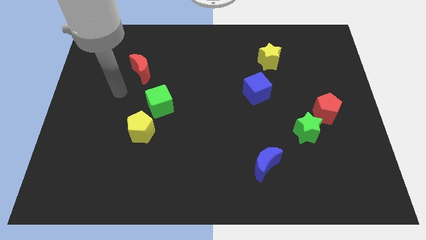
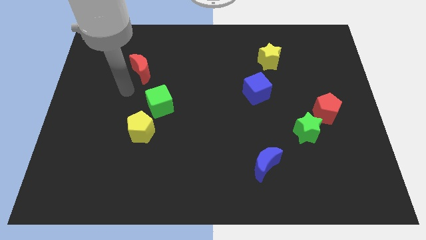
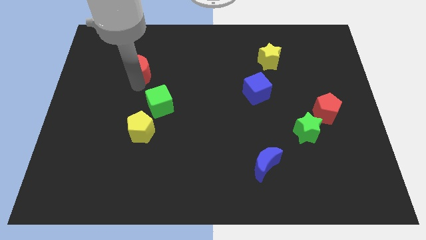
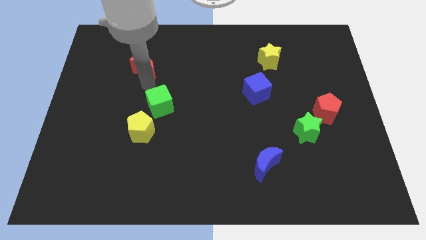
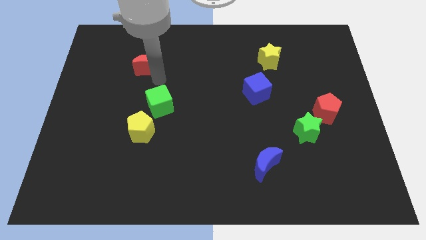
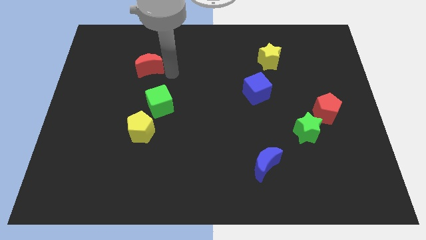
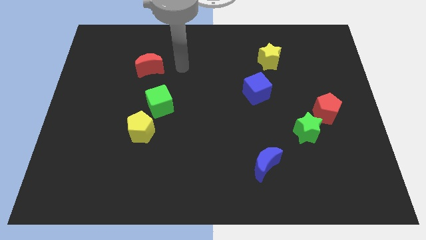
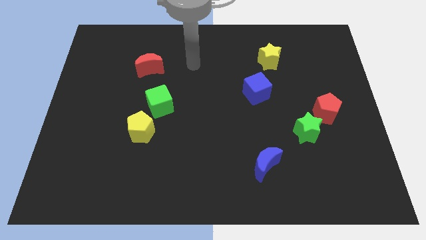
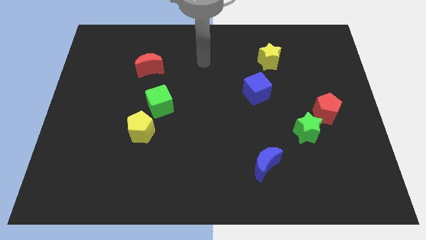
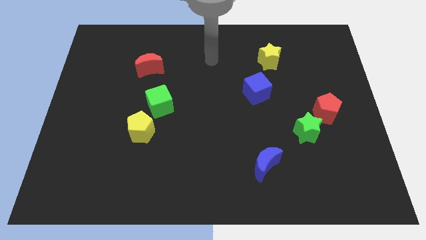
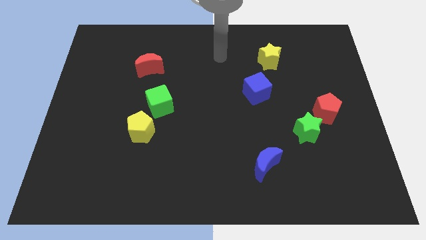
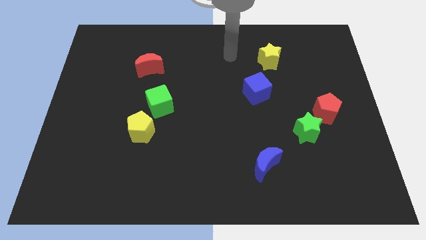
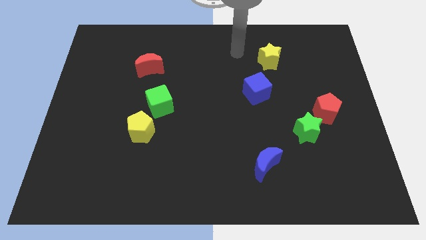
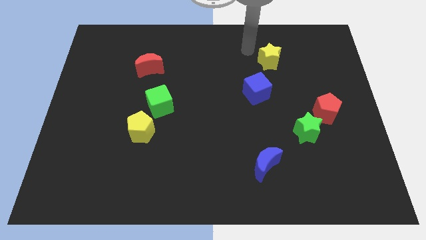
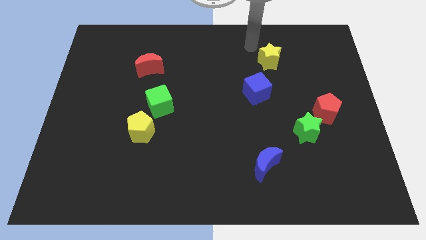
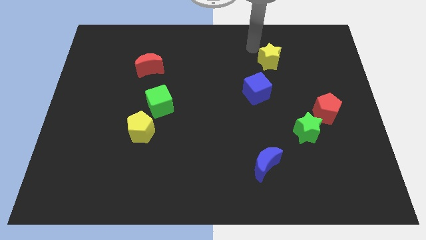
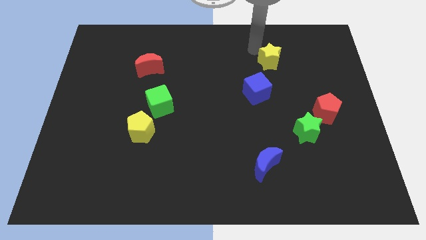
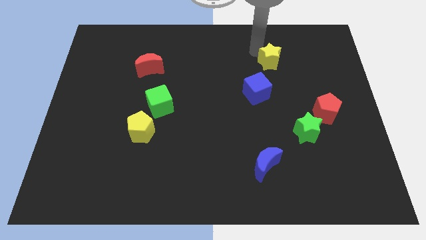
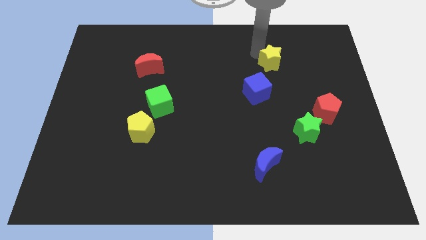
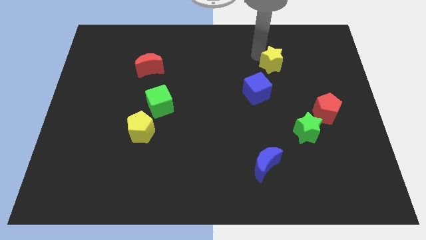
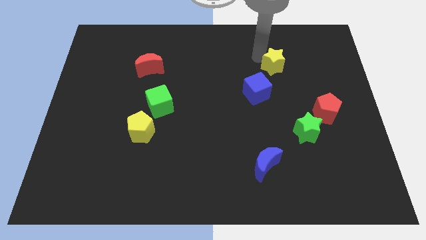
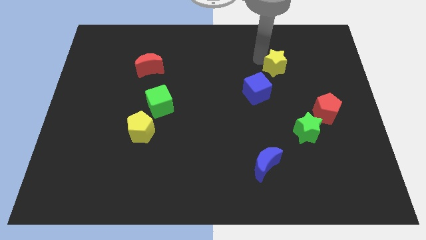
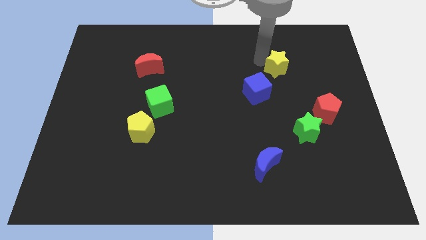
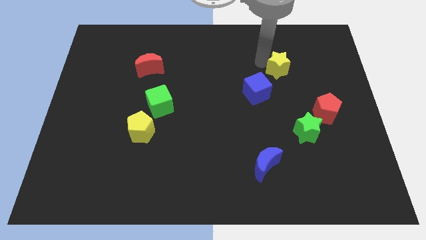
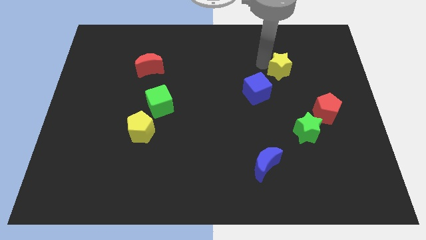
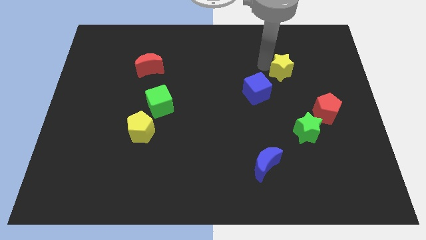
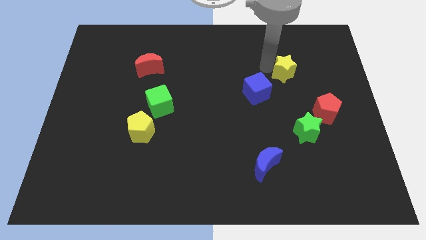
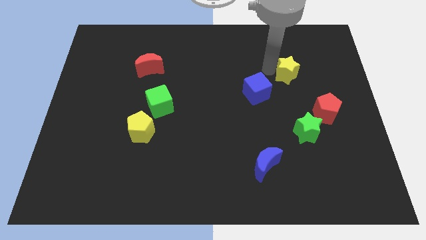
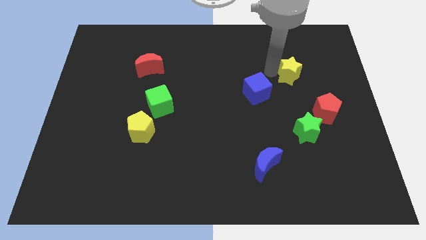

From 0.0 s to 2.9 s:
slightly move the yellow star down and to the right diagonally

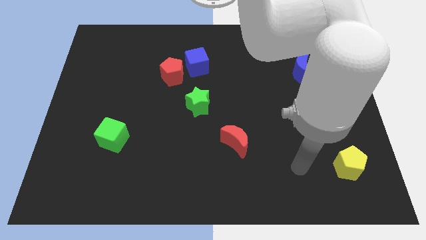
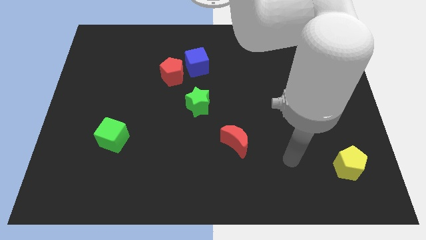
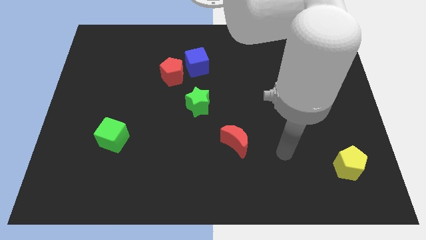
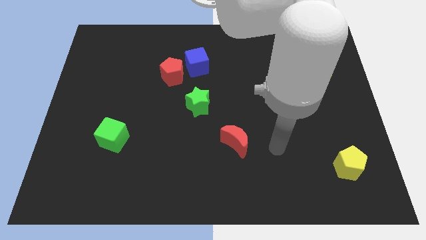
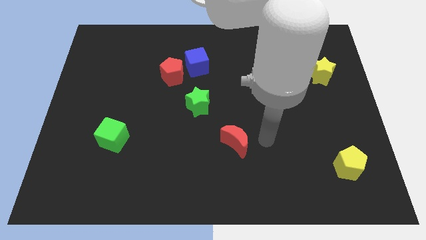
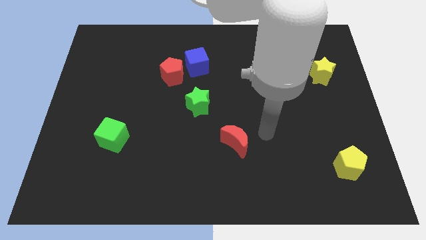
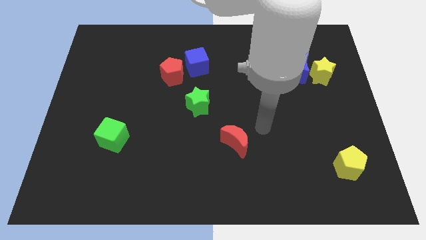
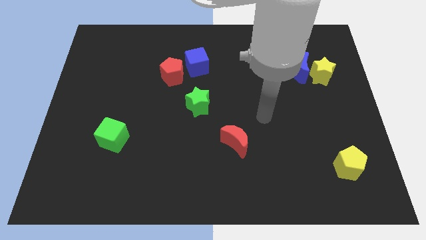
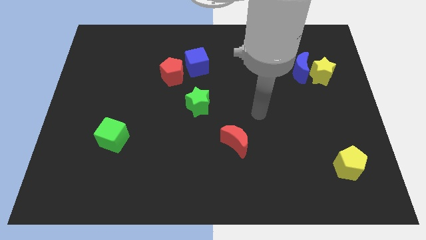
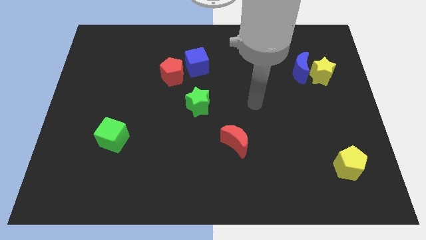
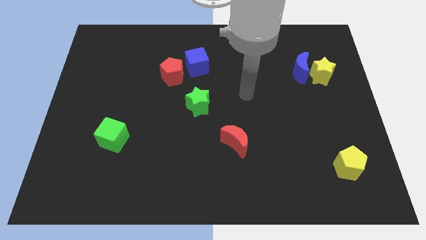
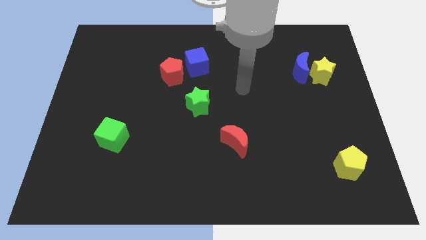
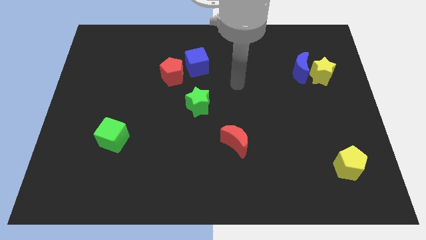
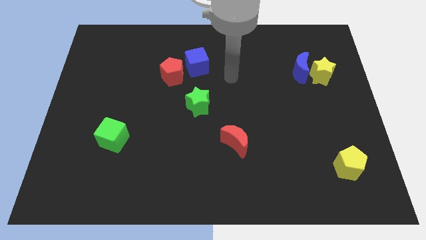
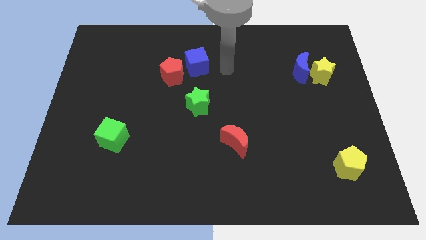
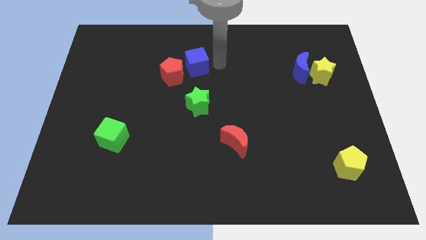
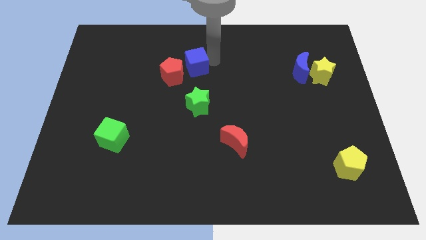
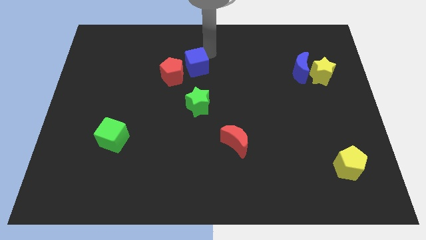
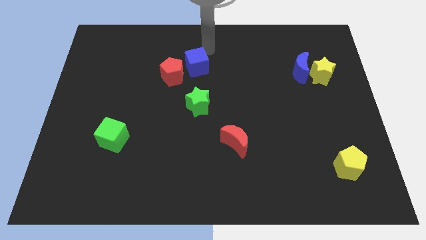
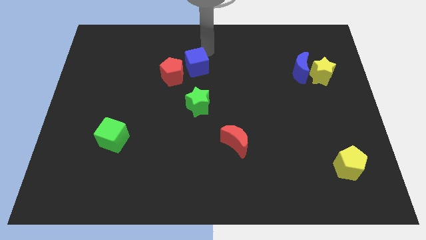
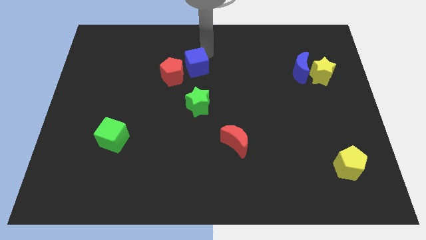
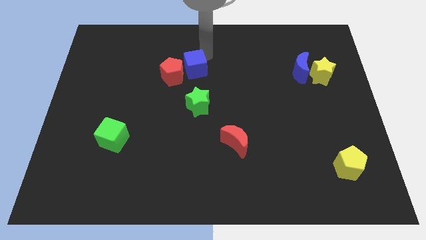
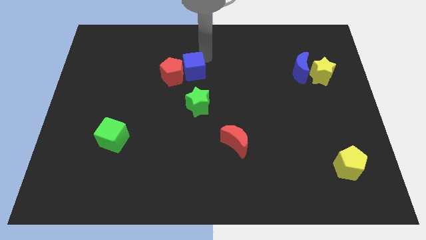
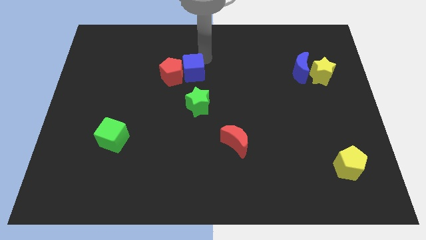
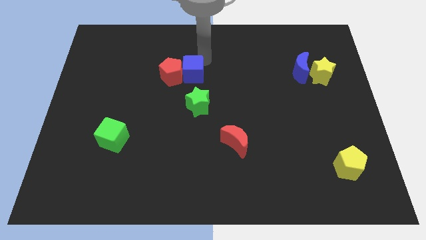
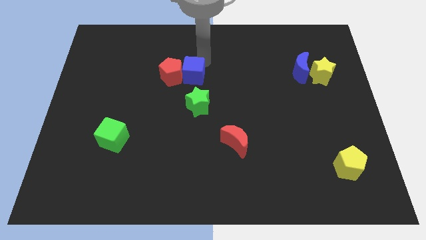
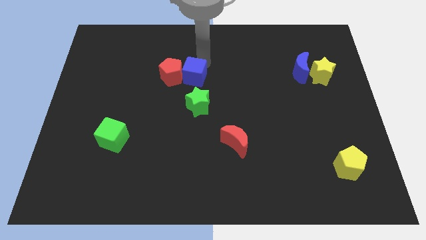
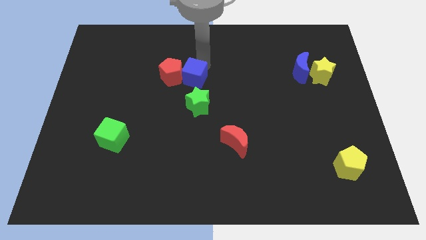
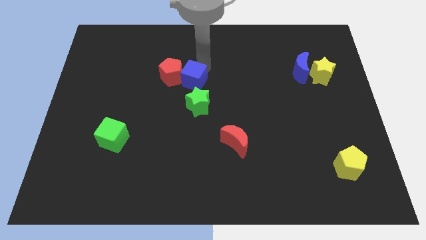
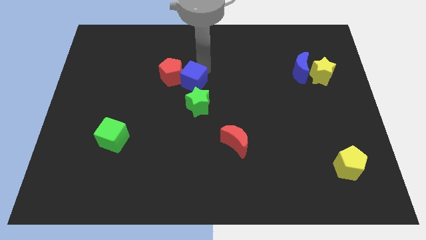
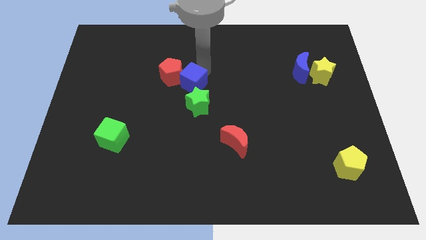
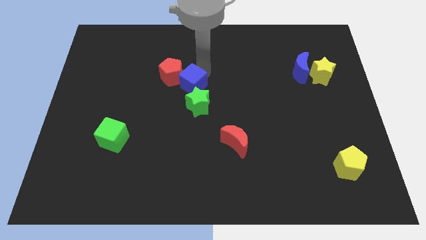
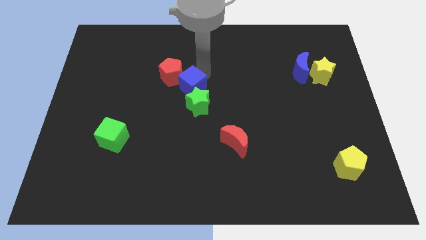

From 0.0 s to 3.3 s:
move the blue cube a little bit downwards

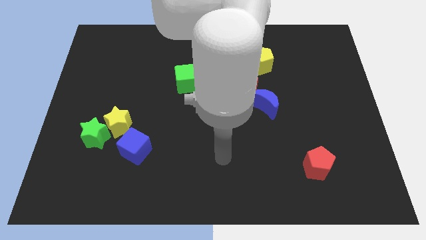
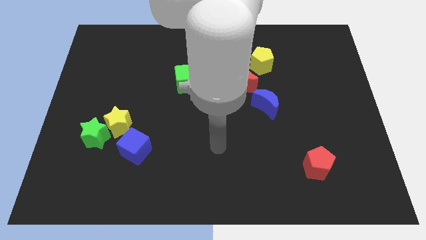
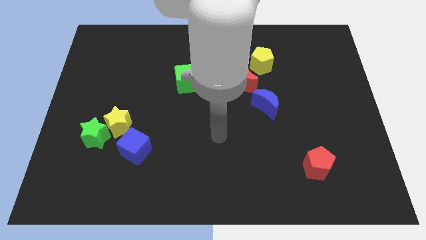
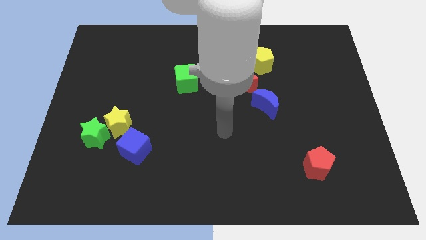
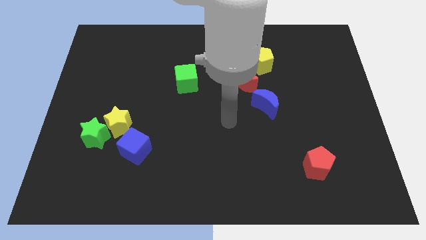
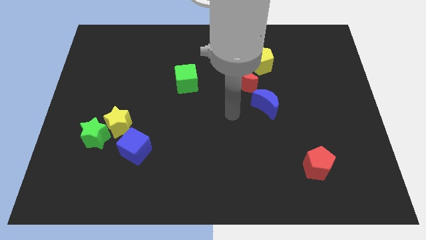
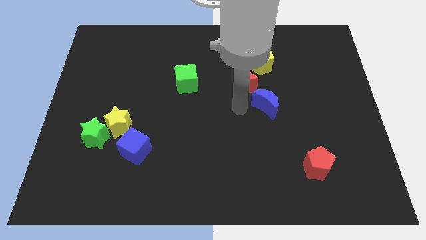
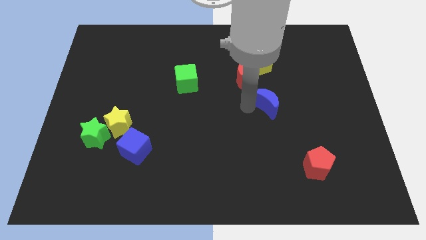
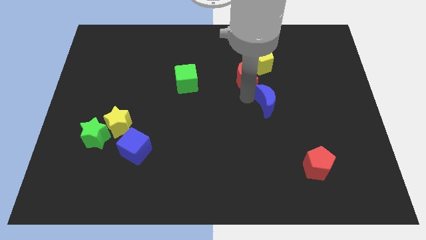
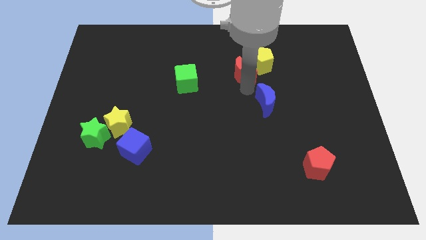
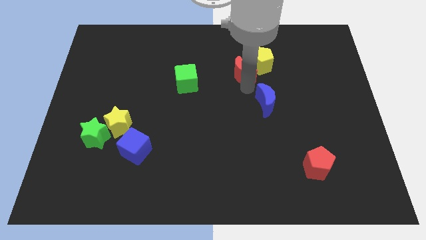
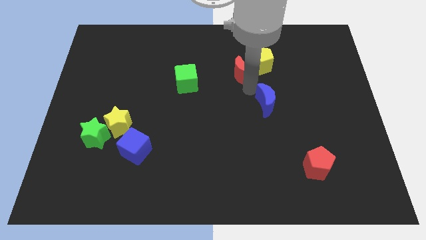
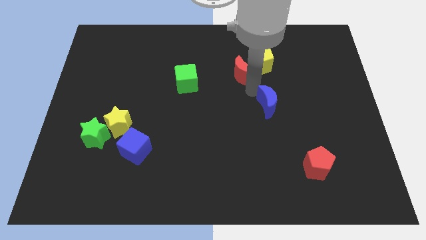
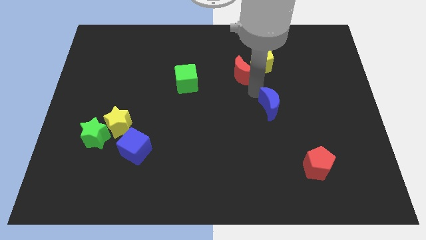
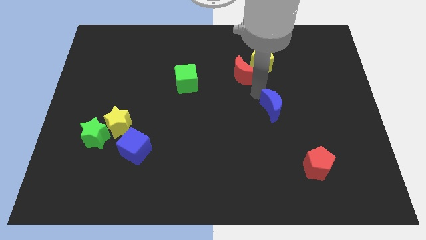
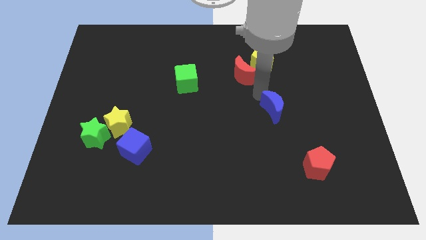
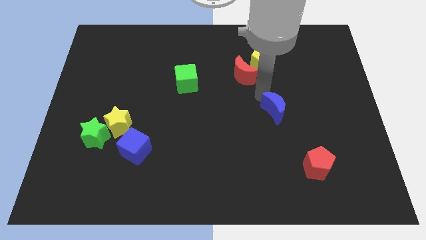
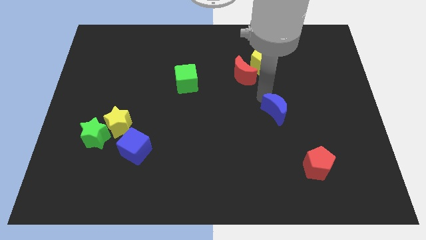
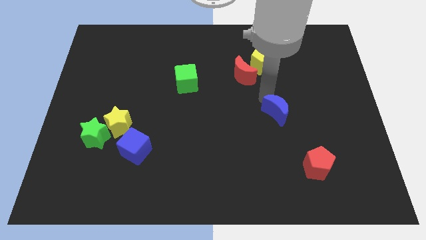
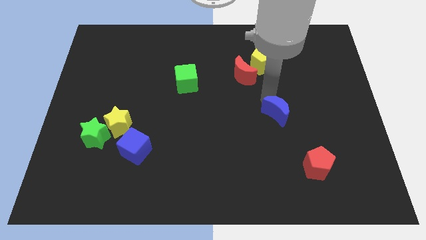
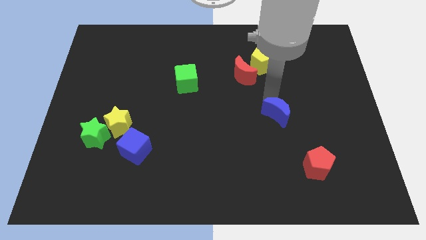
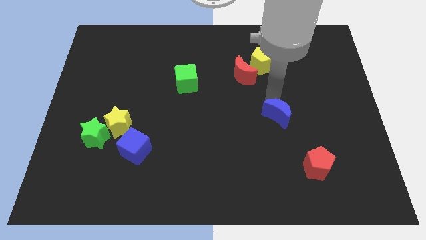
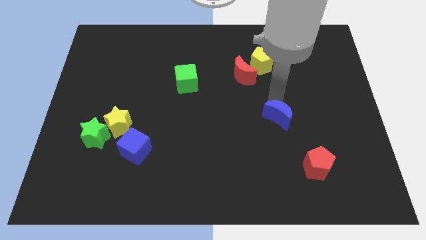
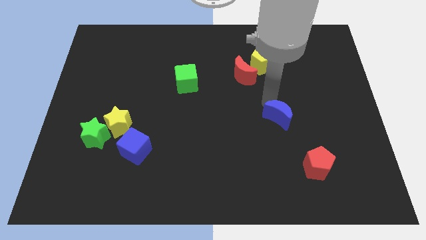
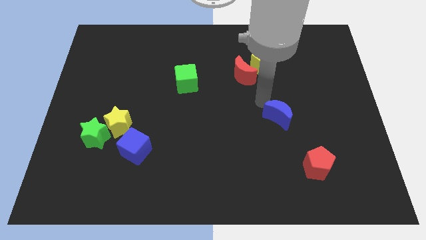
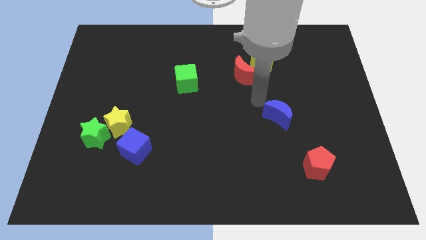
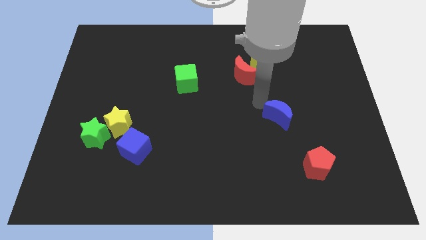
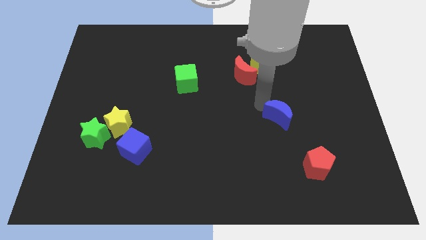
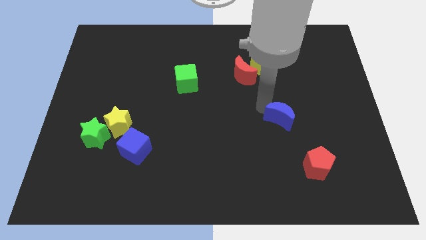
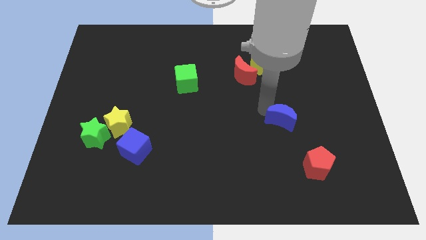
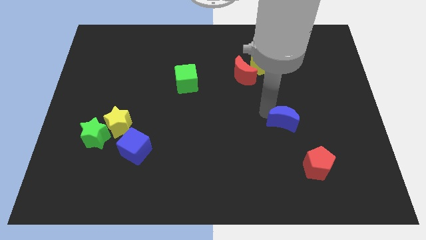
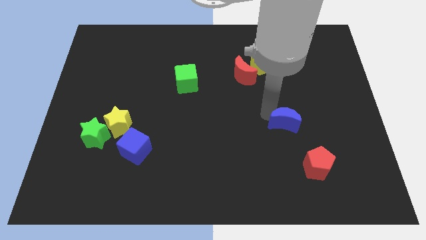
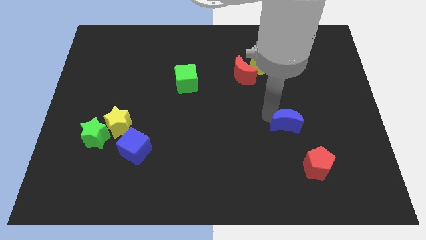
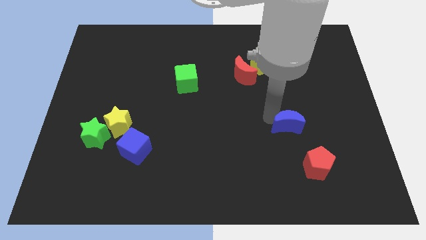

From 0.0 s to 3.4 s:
slide the blue moon downwards and right diagonally a little
